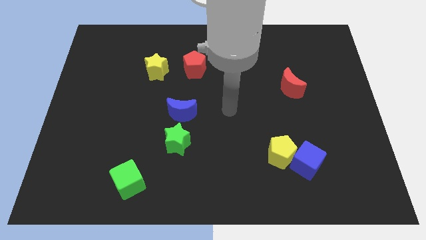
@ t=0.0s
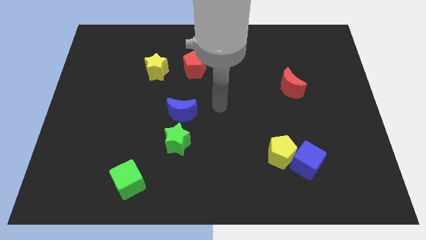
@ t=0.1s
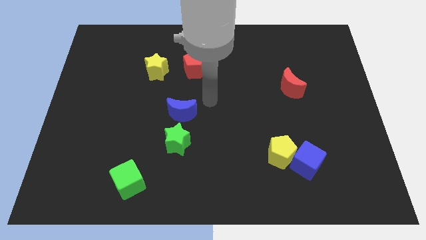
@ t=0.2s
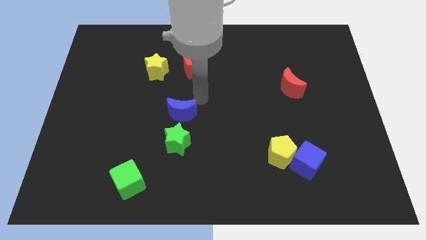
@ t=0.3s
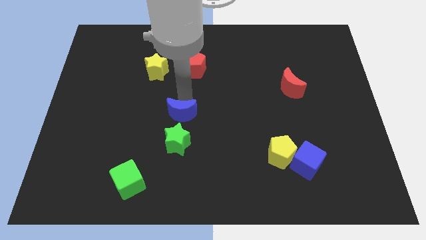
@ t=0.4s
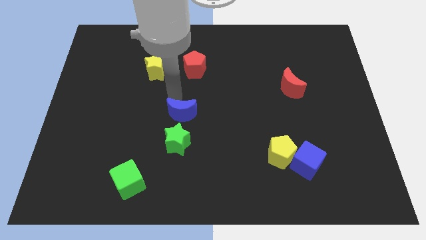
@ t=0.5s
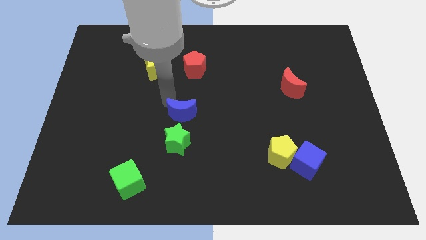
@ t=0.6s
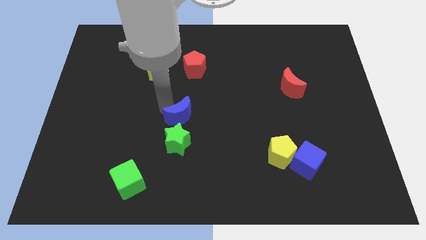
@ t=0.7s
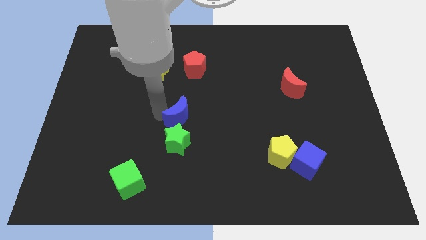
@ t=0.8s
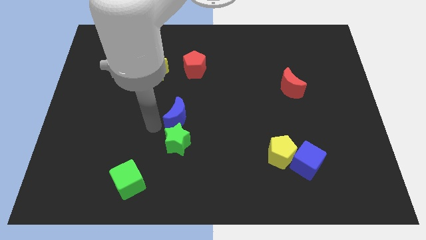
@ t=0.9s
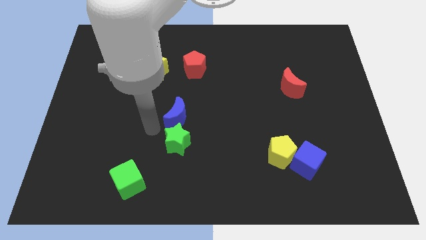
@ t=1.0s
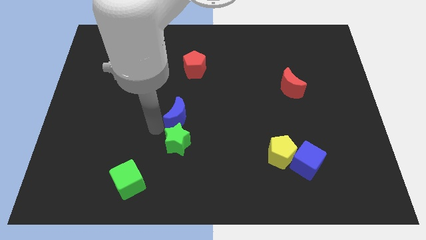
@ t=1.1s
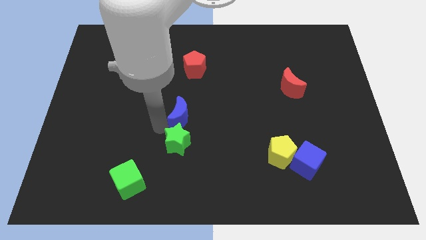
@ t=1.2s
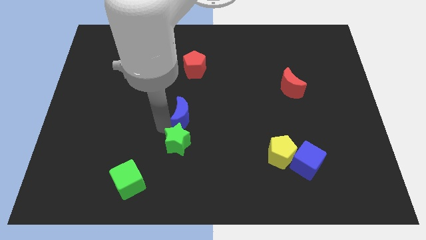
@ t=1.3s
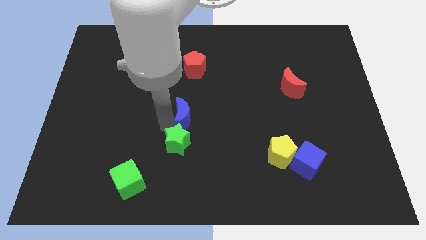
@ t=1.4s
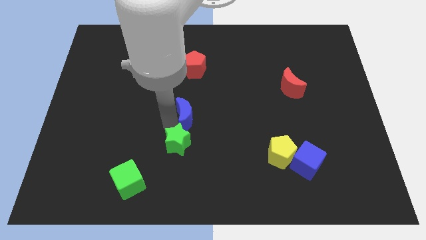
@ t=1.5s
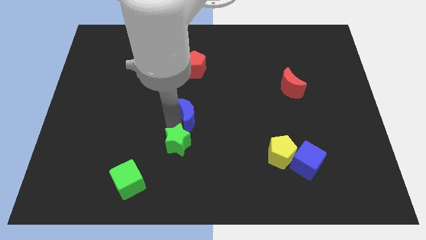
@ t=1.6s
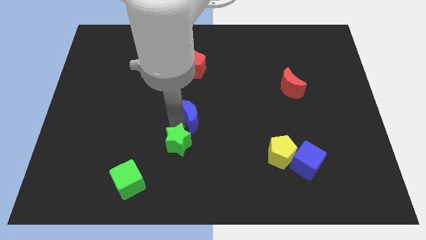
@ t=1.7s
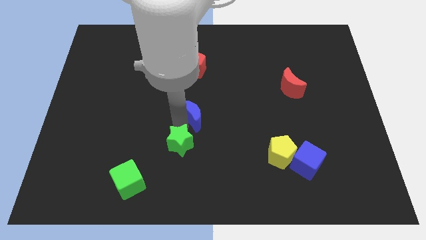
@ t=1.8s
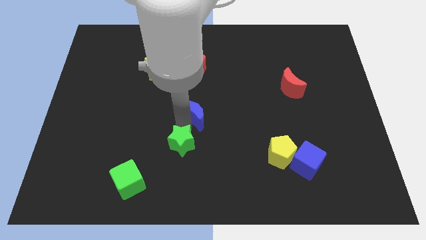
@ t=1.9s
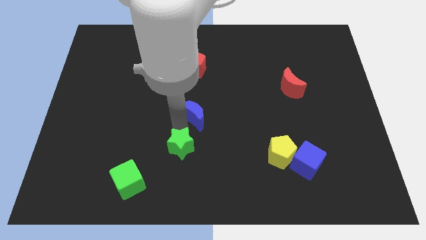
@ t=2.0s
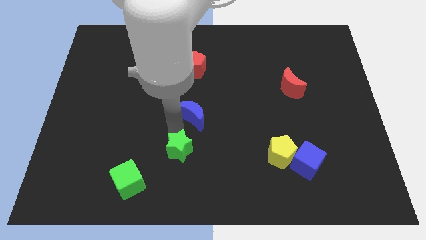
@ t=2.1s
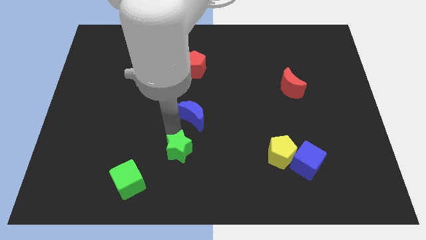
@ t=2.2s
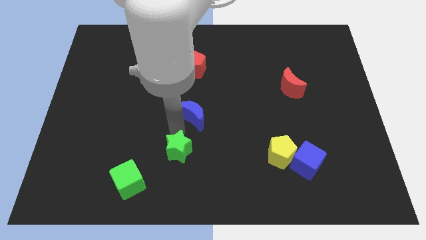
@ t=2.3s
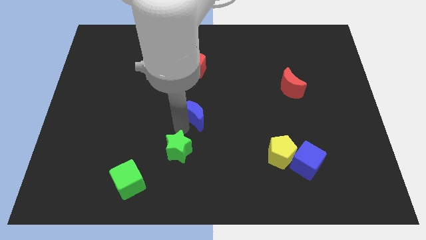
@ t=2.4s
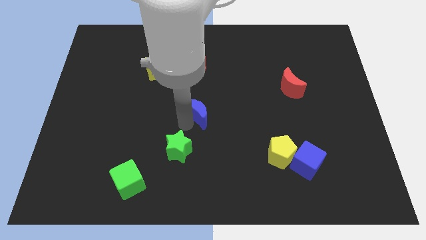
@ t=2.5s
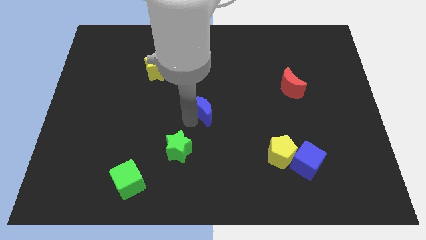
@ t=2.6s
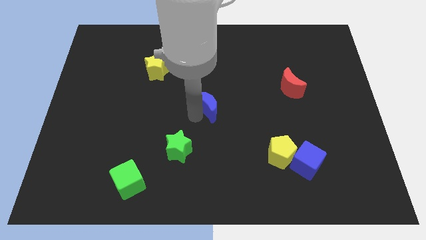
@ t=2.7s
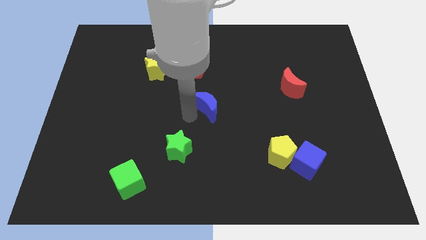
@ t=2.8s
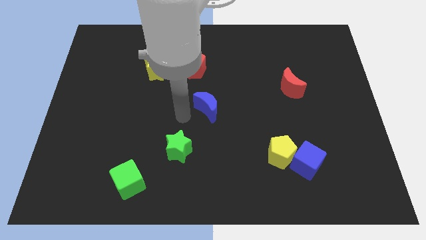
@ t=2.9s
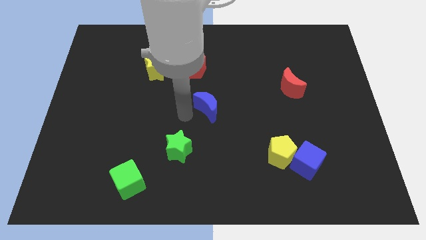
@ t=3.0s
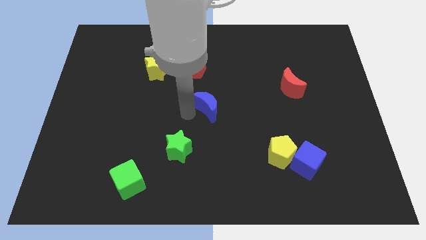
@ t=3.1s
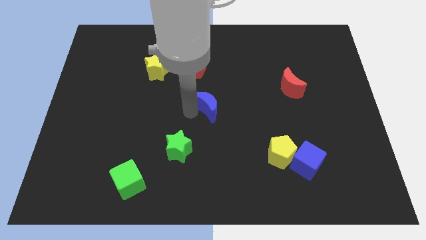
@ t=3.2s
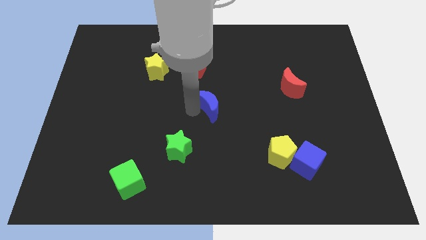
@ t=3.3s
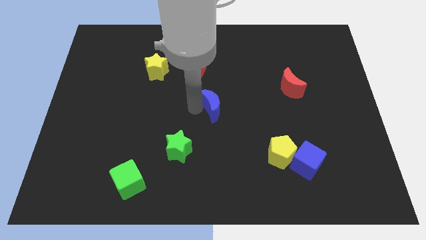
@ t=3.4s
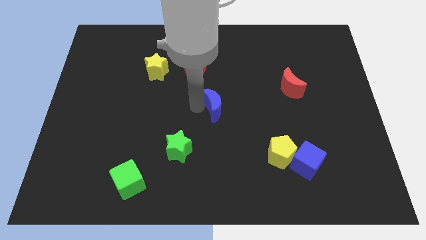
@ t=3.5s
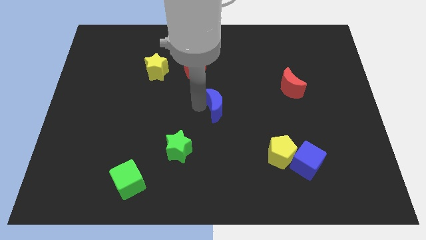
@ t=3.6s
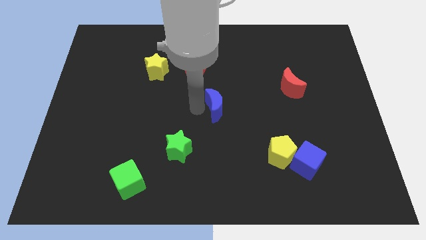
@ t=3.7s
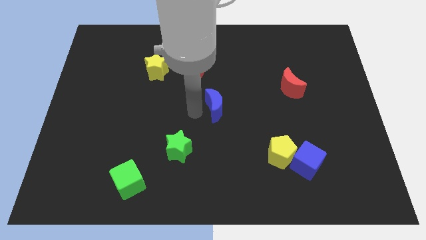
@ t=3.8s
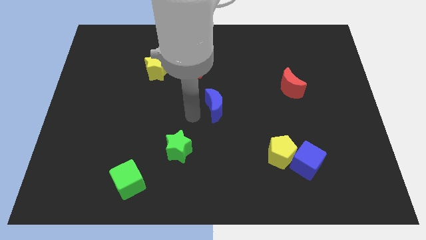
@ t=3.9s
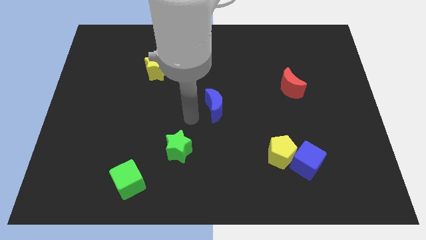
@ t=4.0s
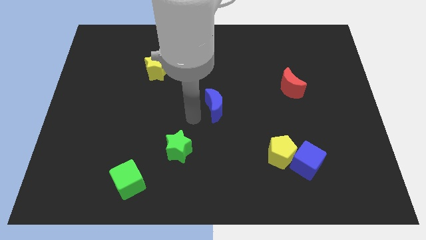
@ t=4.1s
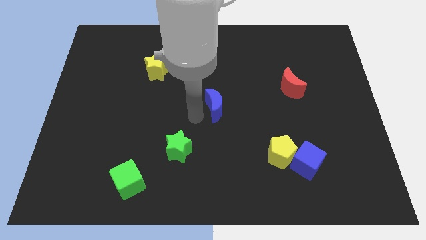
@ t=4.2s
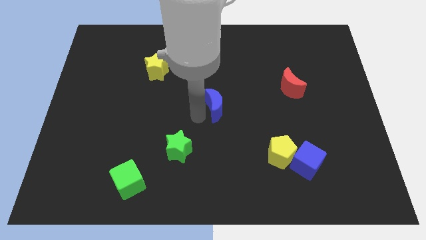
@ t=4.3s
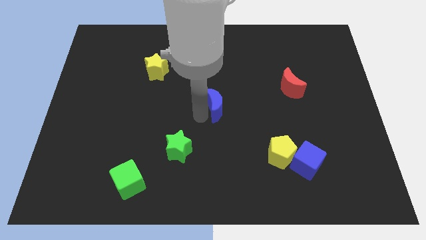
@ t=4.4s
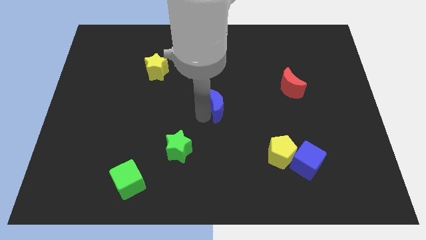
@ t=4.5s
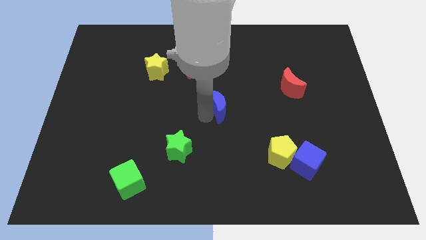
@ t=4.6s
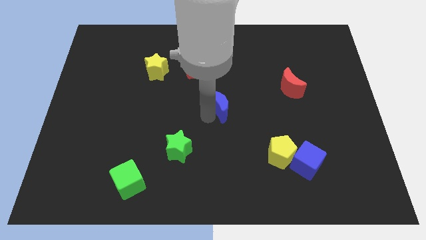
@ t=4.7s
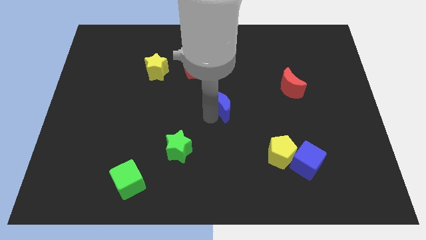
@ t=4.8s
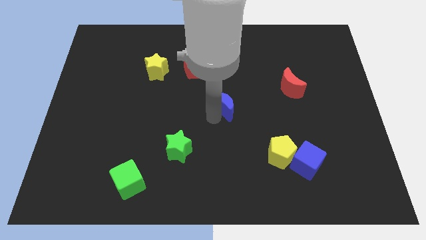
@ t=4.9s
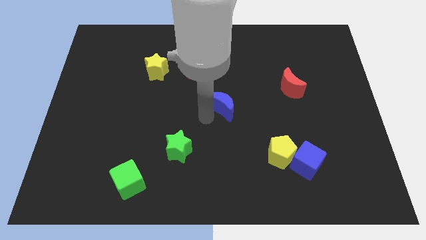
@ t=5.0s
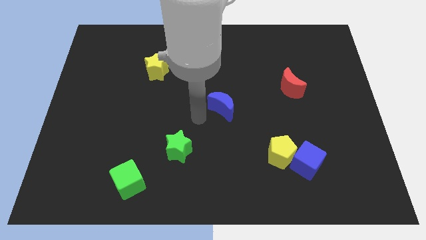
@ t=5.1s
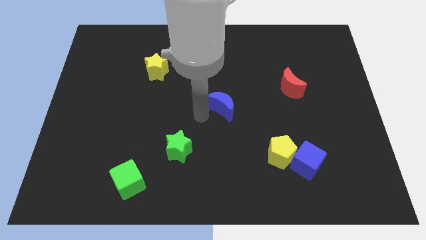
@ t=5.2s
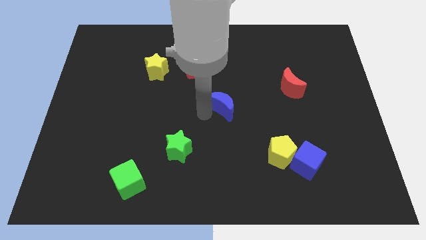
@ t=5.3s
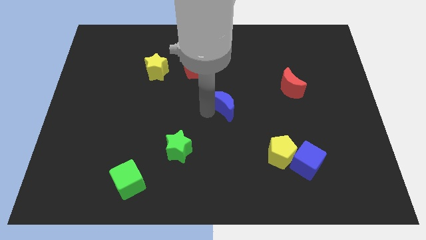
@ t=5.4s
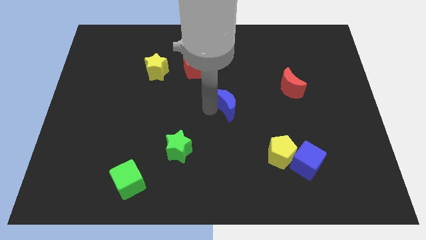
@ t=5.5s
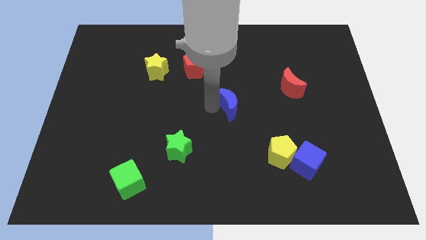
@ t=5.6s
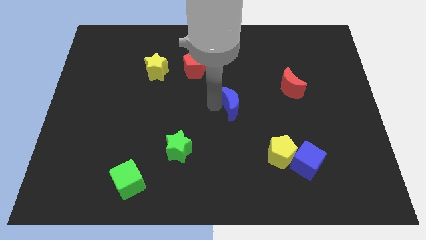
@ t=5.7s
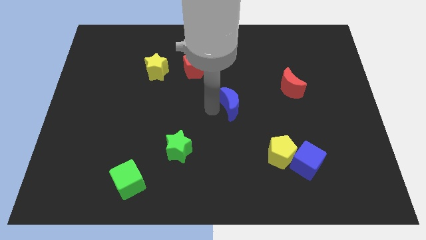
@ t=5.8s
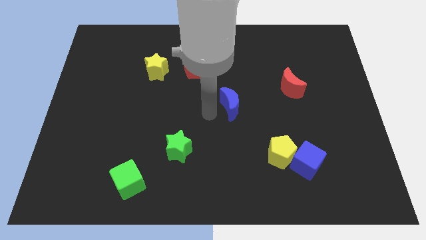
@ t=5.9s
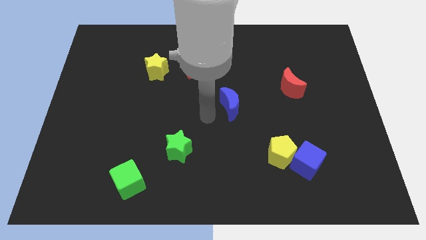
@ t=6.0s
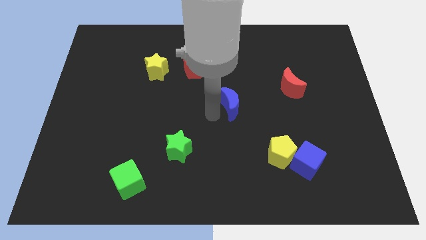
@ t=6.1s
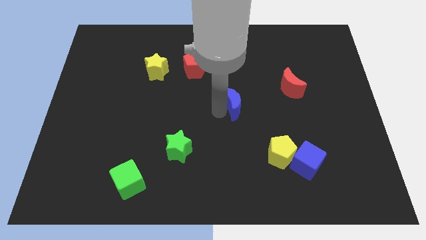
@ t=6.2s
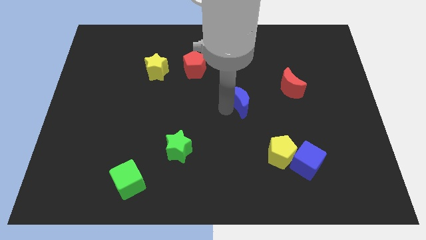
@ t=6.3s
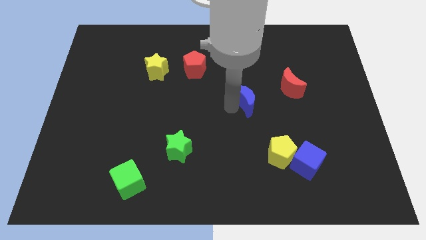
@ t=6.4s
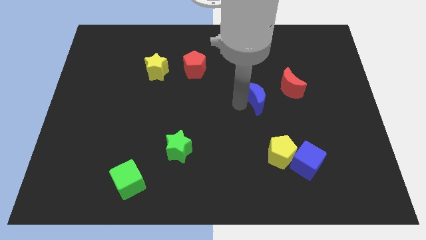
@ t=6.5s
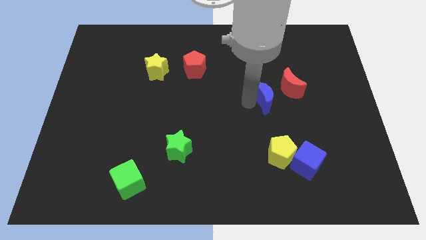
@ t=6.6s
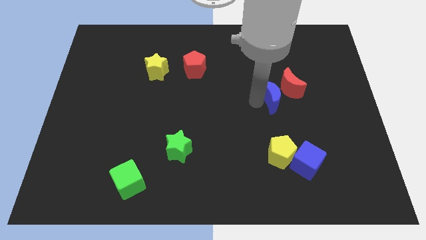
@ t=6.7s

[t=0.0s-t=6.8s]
push the blue moon next to the red moon
